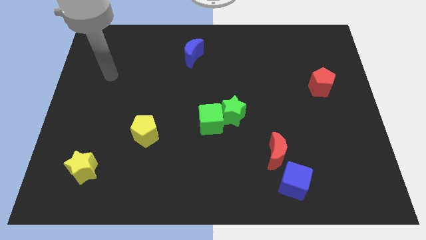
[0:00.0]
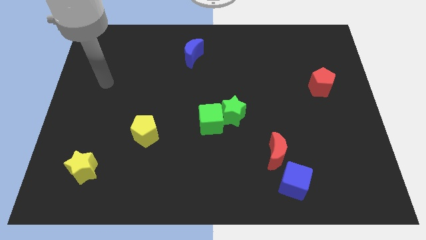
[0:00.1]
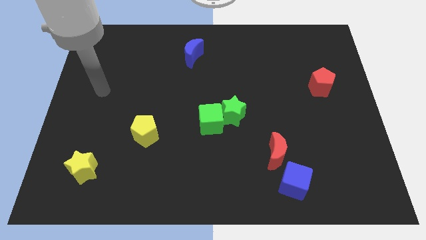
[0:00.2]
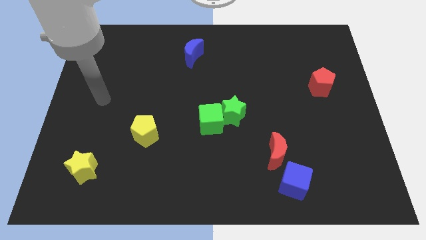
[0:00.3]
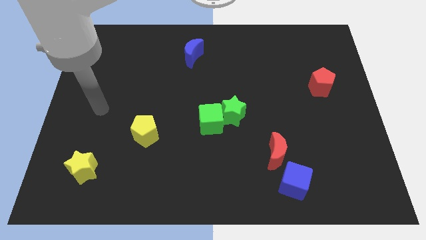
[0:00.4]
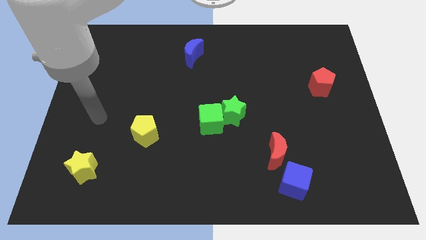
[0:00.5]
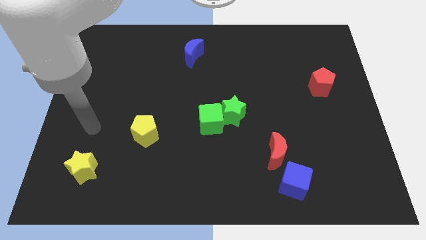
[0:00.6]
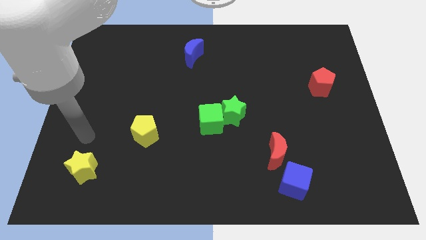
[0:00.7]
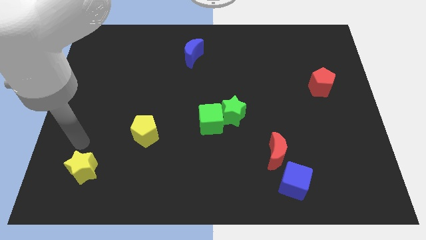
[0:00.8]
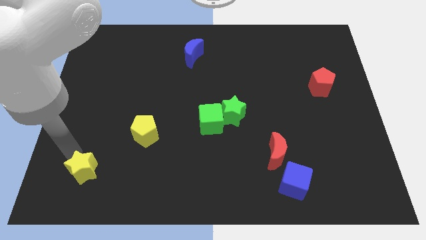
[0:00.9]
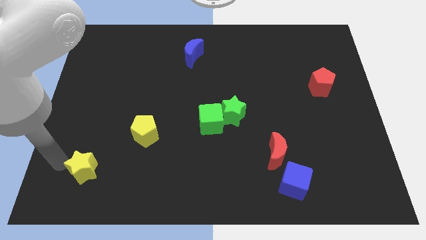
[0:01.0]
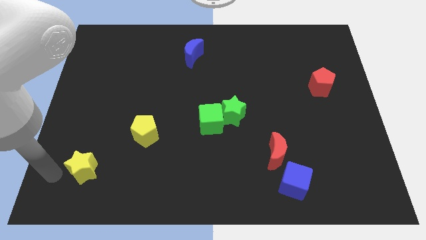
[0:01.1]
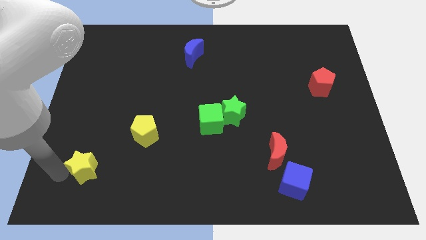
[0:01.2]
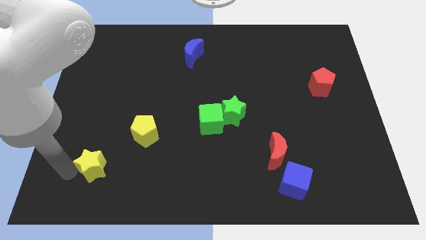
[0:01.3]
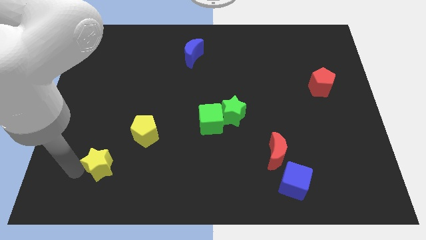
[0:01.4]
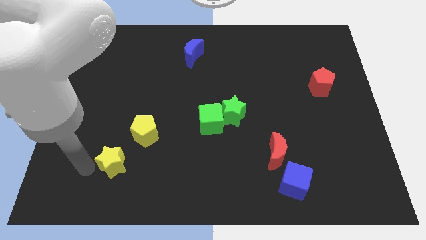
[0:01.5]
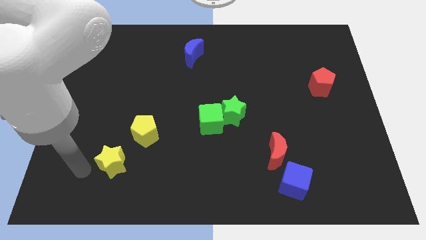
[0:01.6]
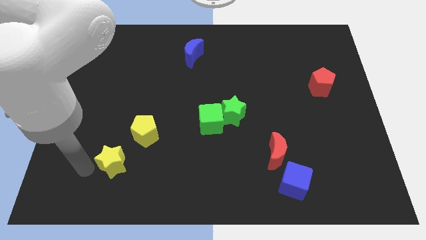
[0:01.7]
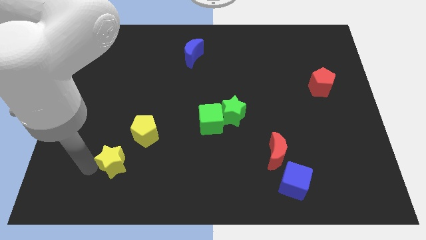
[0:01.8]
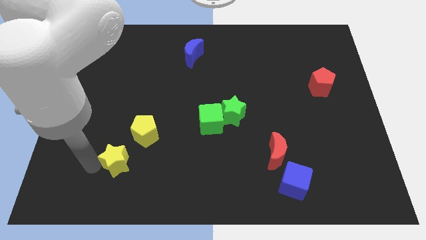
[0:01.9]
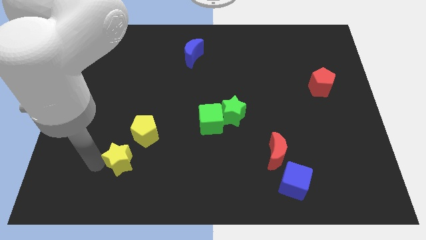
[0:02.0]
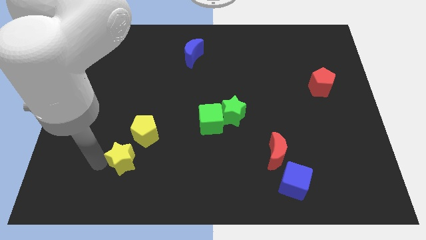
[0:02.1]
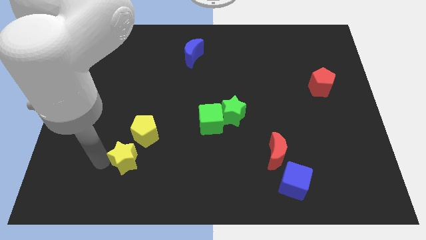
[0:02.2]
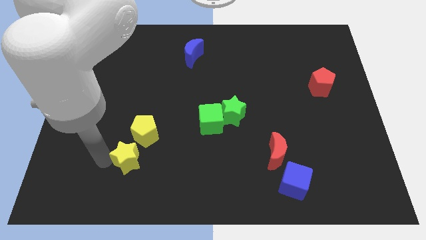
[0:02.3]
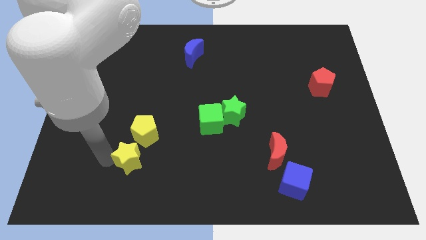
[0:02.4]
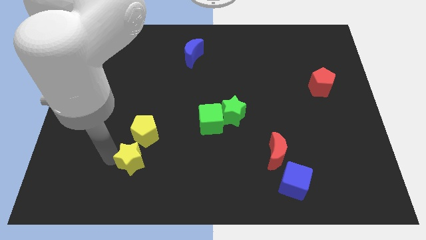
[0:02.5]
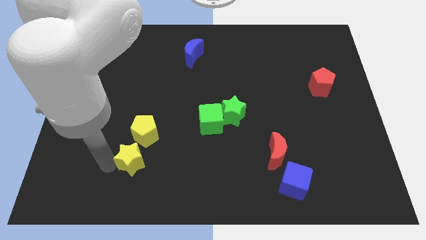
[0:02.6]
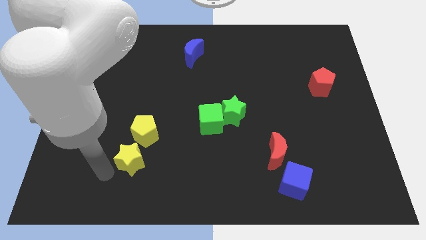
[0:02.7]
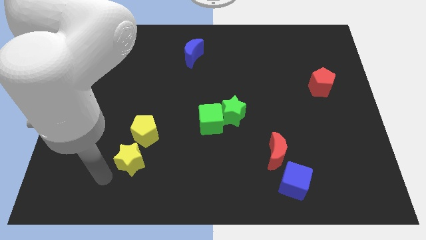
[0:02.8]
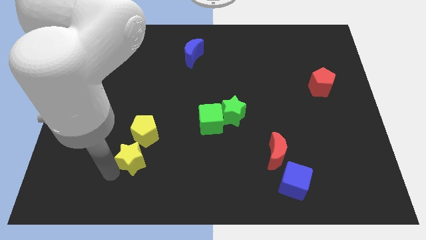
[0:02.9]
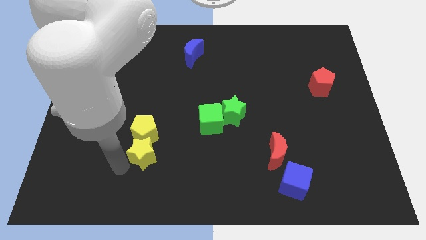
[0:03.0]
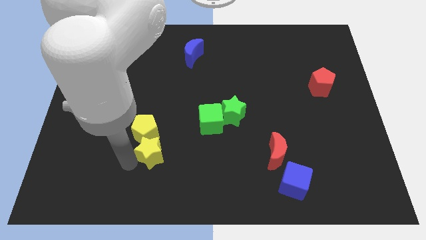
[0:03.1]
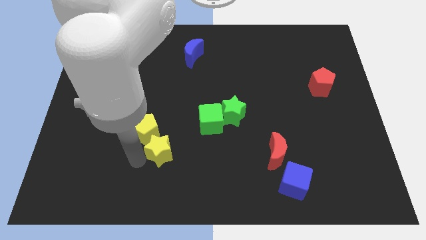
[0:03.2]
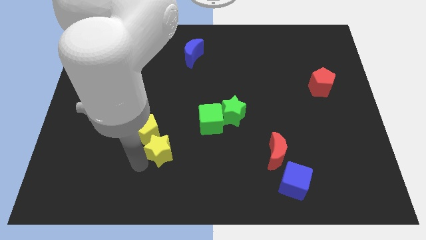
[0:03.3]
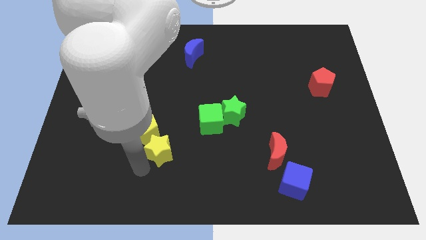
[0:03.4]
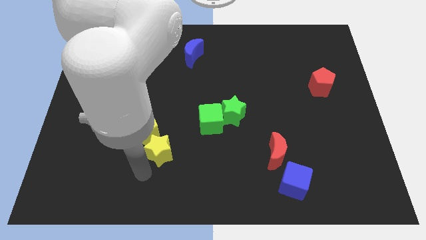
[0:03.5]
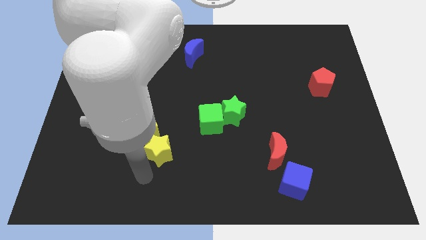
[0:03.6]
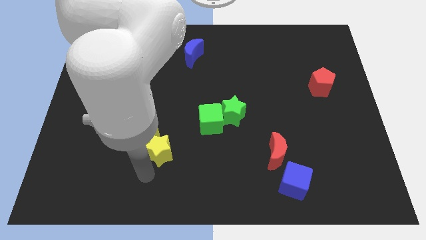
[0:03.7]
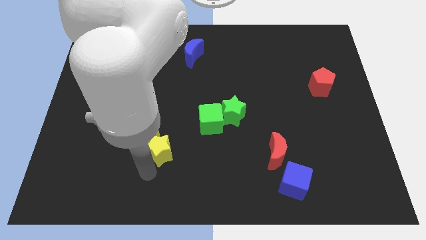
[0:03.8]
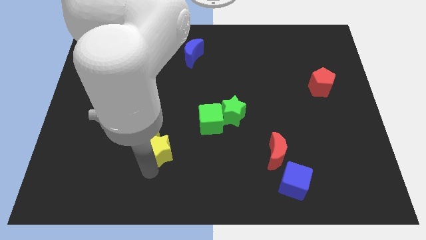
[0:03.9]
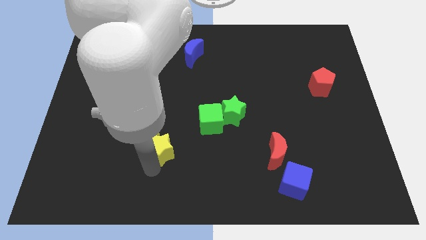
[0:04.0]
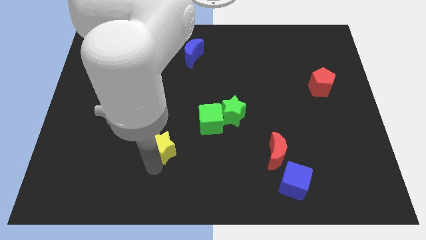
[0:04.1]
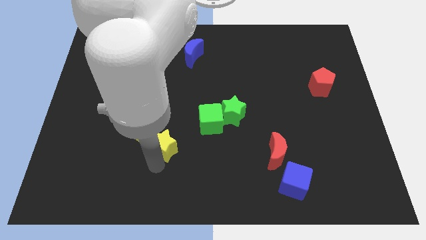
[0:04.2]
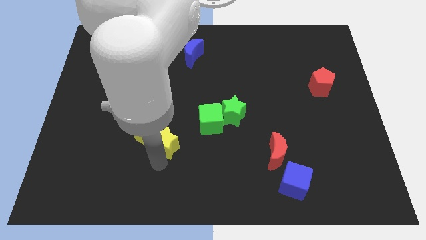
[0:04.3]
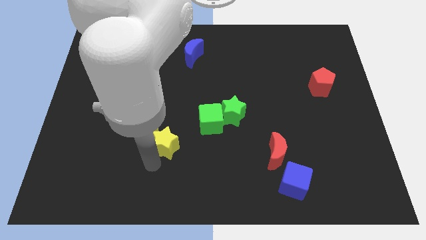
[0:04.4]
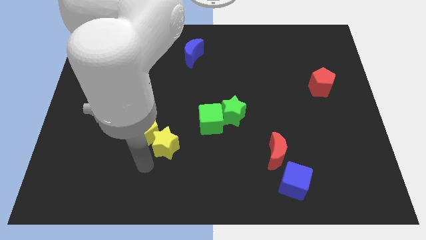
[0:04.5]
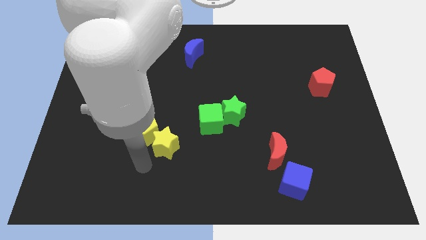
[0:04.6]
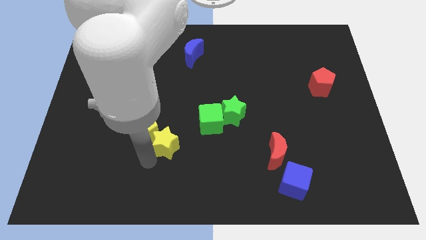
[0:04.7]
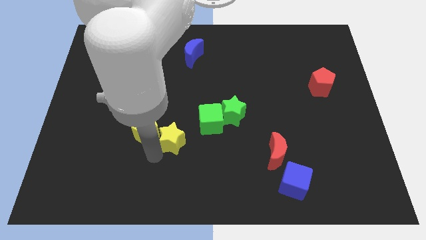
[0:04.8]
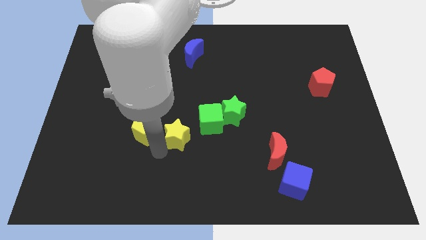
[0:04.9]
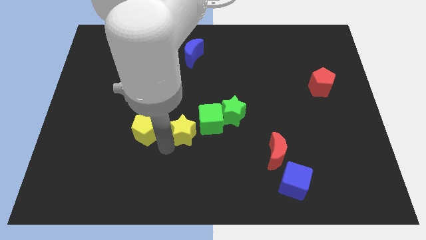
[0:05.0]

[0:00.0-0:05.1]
slide the yellow star to the middle

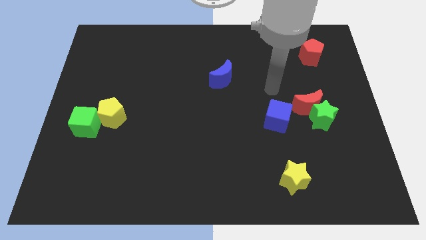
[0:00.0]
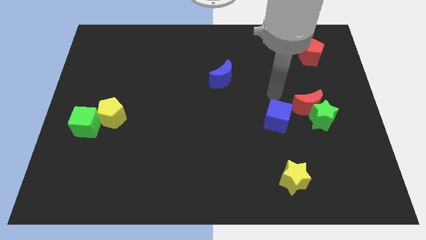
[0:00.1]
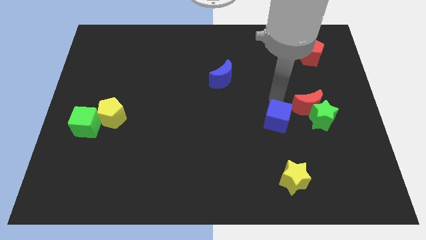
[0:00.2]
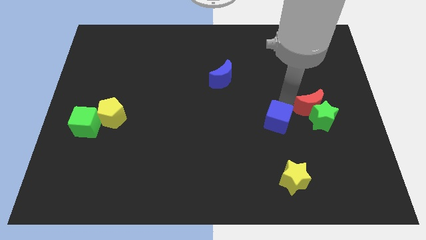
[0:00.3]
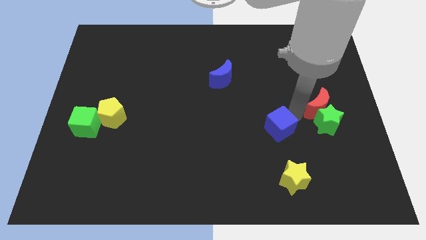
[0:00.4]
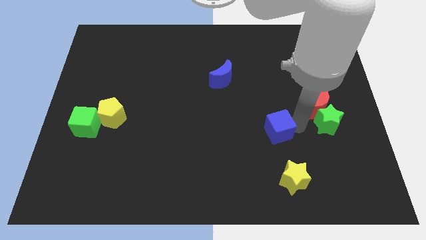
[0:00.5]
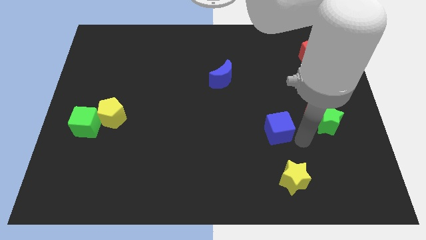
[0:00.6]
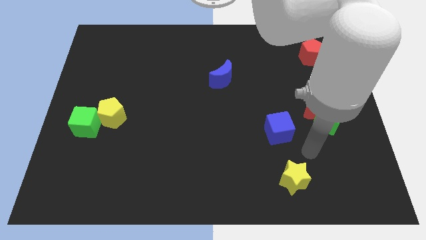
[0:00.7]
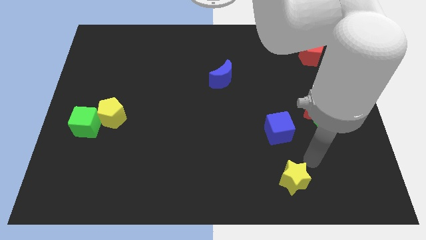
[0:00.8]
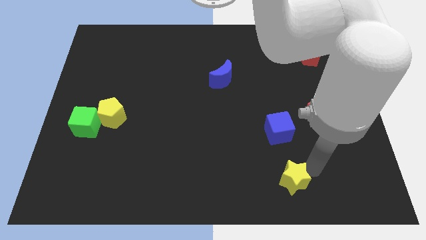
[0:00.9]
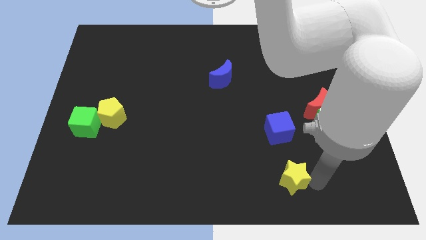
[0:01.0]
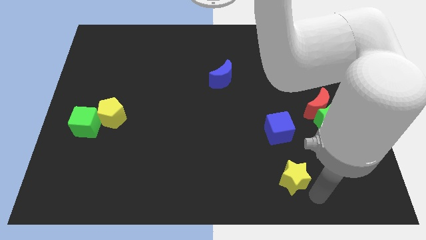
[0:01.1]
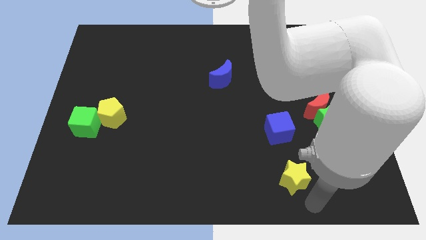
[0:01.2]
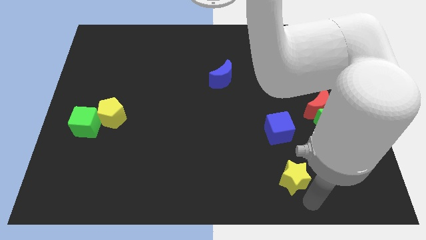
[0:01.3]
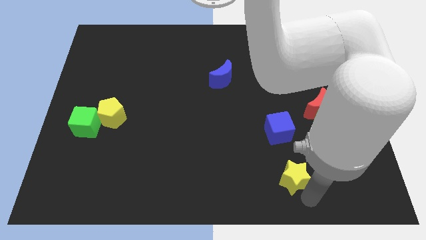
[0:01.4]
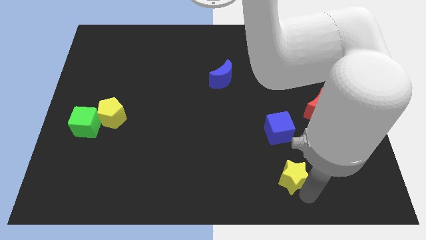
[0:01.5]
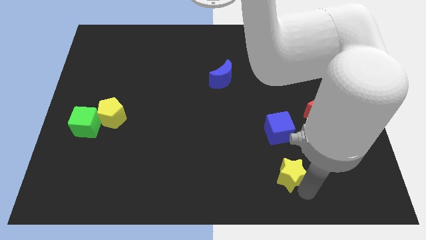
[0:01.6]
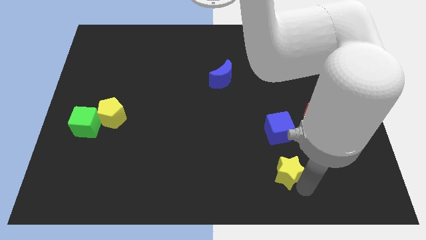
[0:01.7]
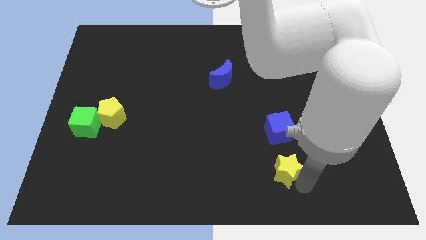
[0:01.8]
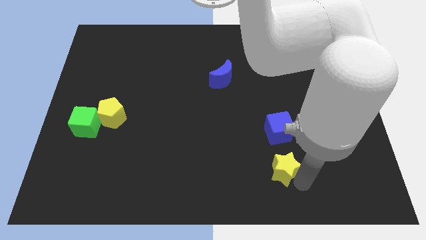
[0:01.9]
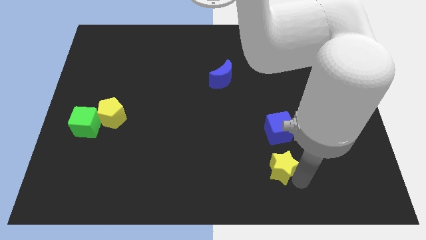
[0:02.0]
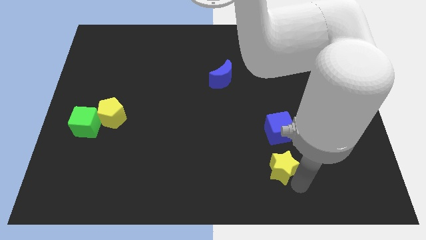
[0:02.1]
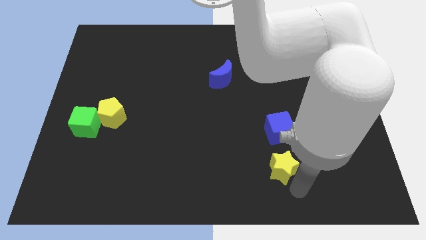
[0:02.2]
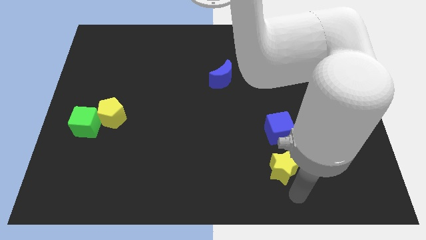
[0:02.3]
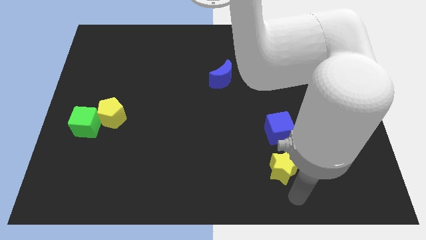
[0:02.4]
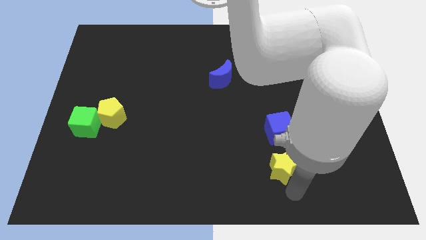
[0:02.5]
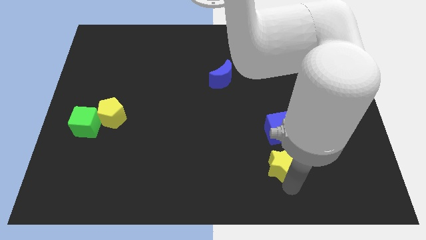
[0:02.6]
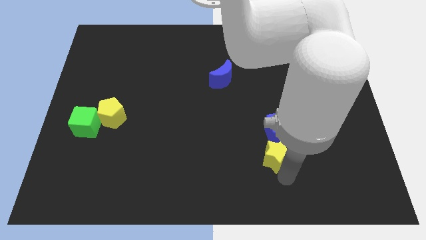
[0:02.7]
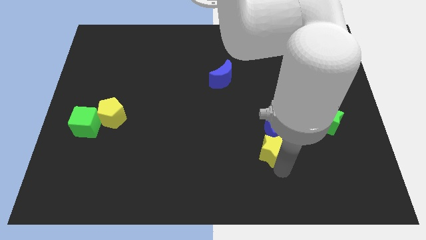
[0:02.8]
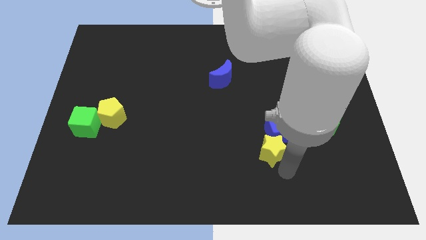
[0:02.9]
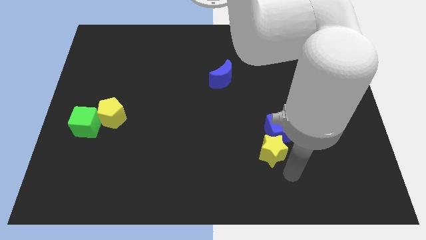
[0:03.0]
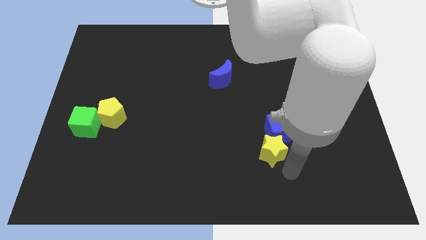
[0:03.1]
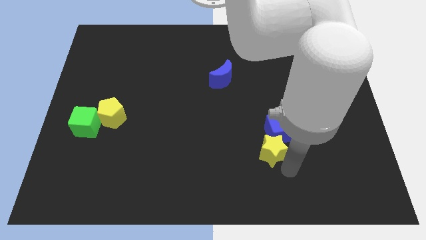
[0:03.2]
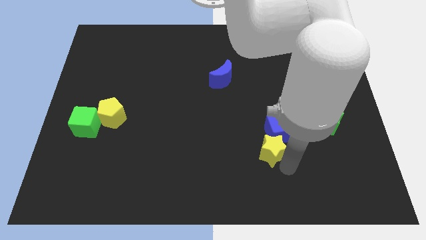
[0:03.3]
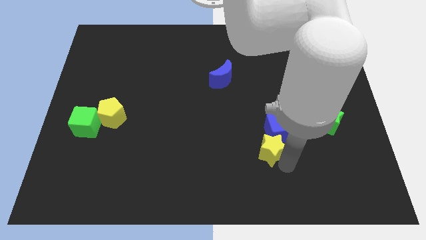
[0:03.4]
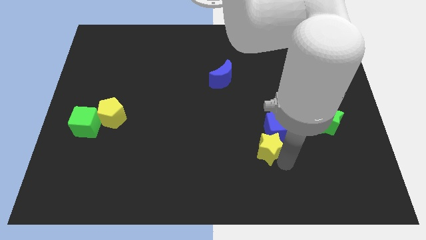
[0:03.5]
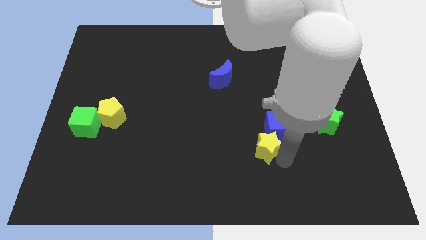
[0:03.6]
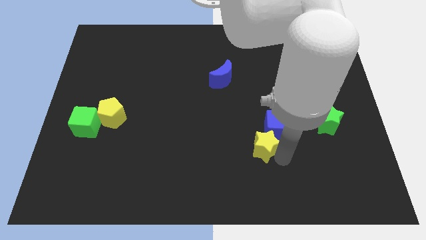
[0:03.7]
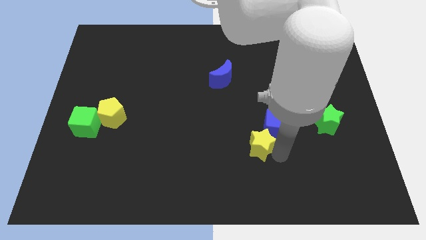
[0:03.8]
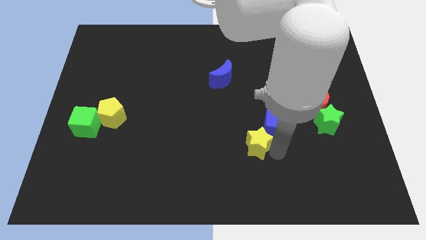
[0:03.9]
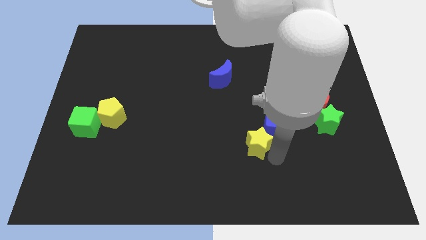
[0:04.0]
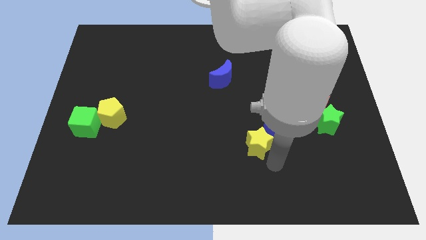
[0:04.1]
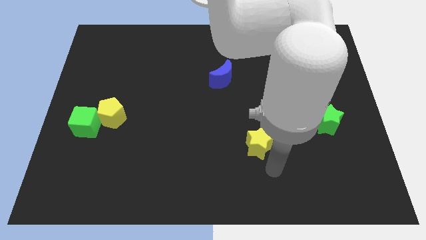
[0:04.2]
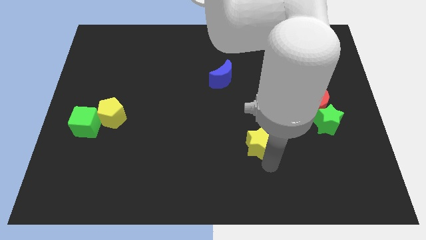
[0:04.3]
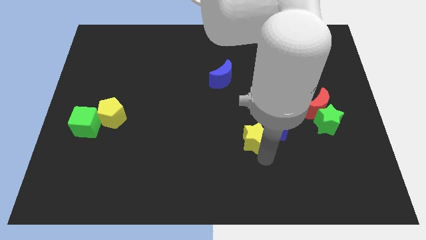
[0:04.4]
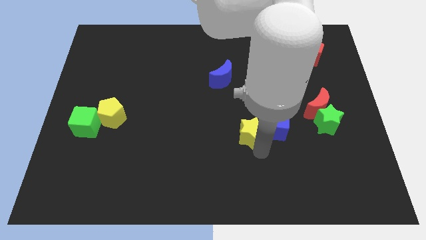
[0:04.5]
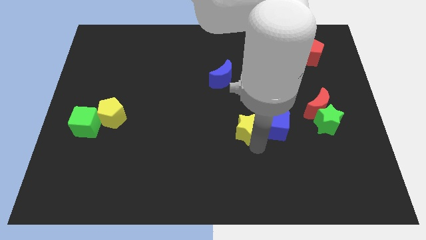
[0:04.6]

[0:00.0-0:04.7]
slide the yellow star to the center
